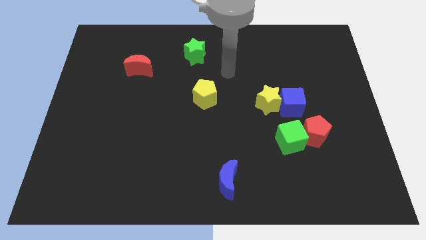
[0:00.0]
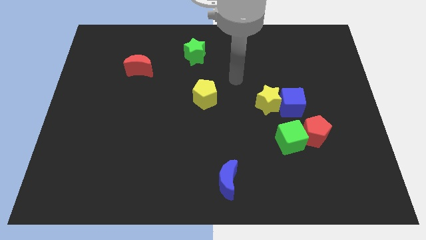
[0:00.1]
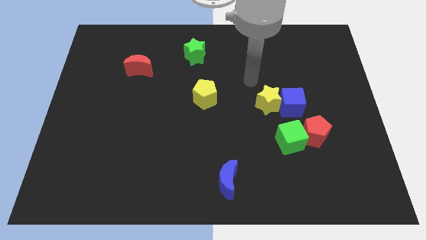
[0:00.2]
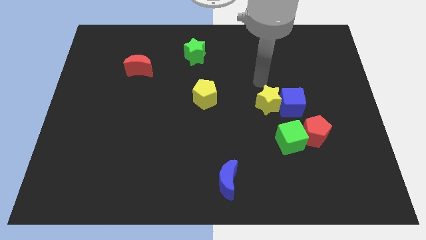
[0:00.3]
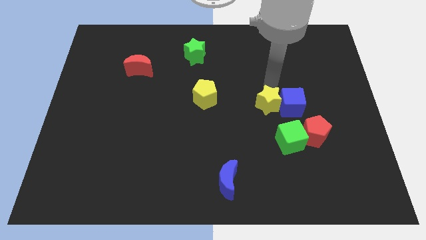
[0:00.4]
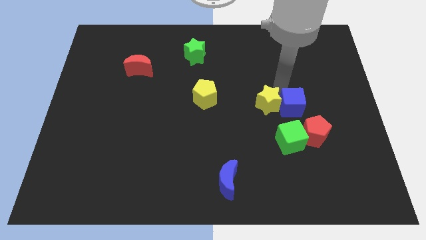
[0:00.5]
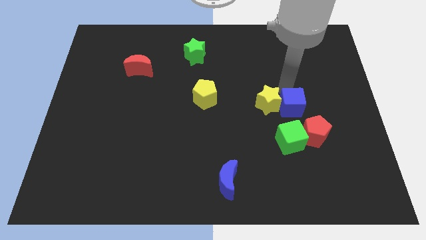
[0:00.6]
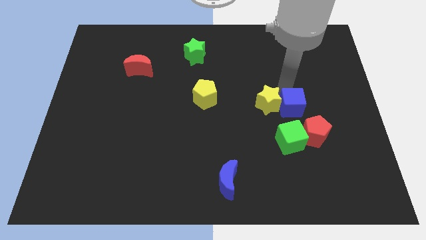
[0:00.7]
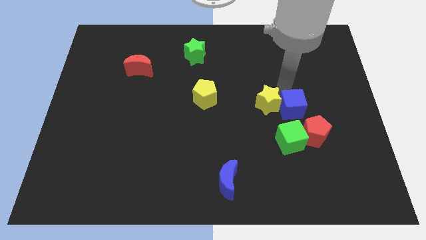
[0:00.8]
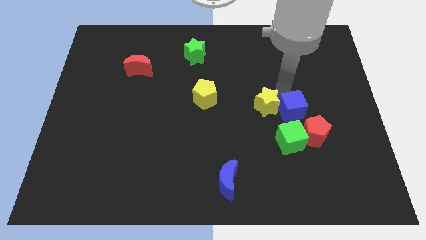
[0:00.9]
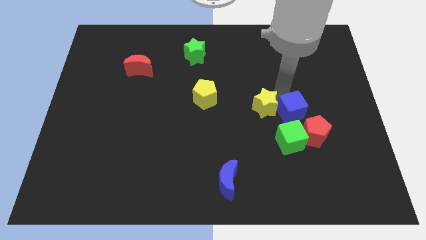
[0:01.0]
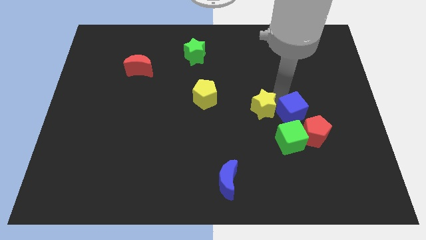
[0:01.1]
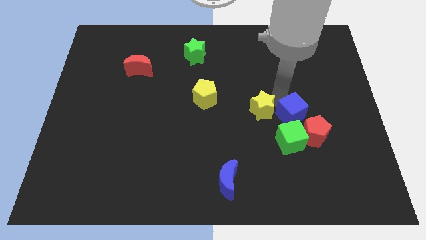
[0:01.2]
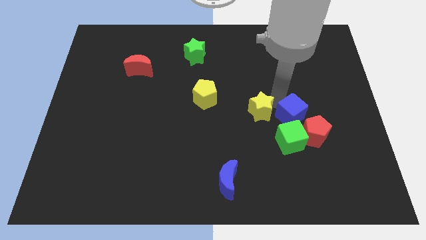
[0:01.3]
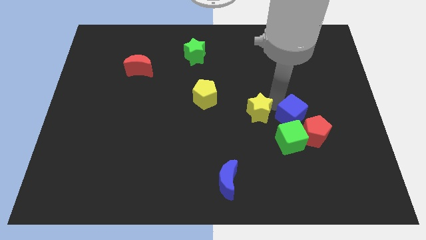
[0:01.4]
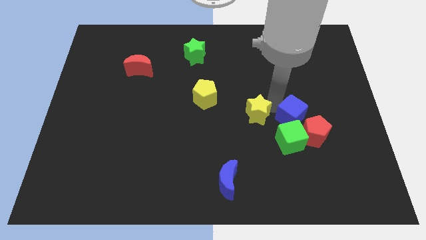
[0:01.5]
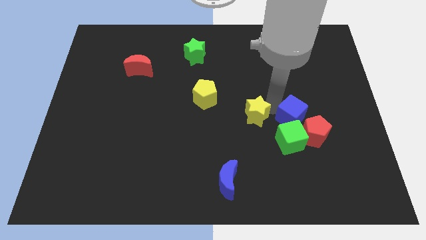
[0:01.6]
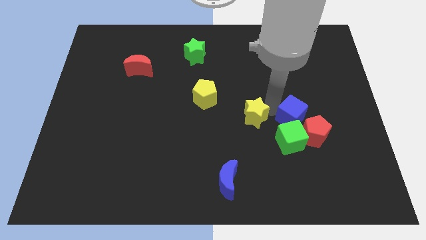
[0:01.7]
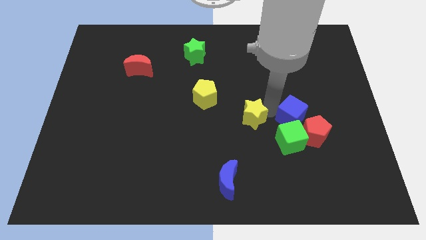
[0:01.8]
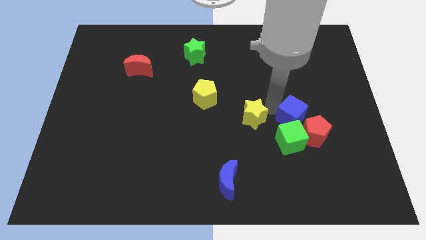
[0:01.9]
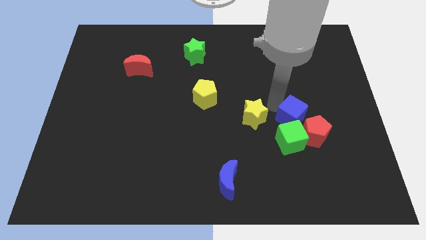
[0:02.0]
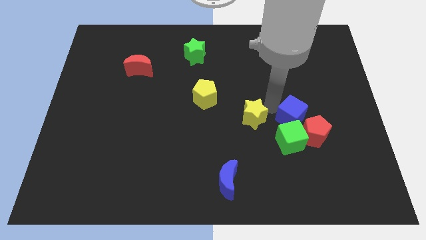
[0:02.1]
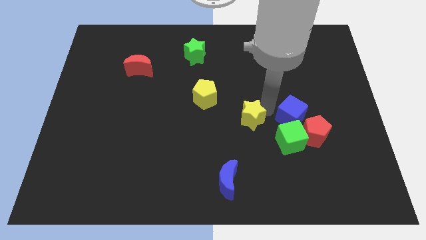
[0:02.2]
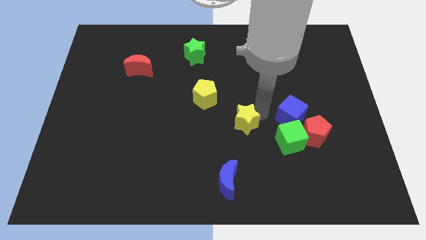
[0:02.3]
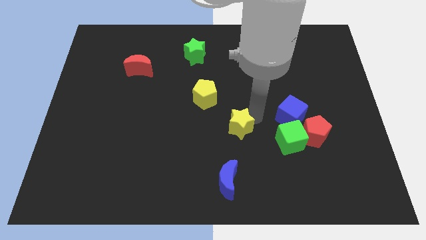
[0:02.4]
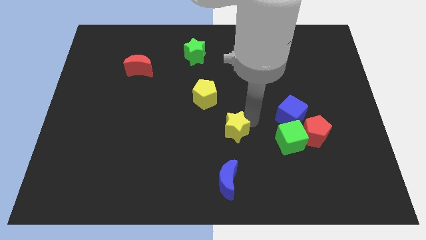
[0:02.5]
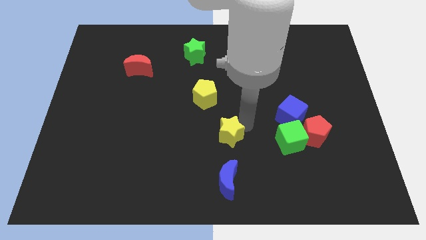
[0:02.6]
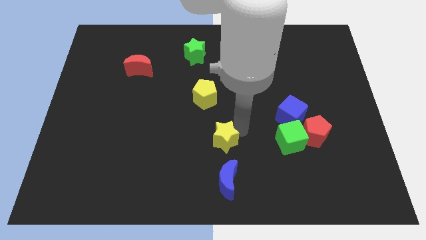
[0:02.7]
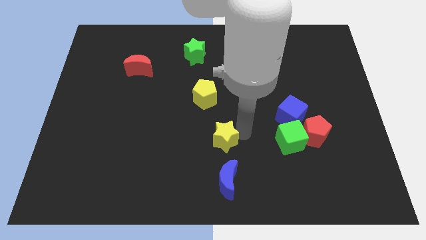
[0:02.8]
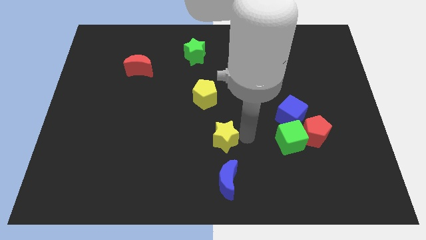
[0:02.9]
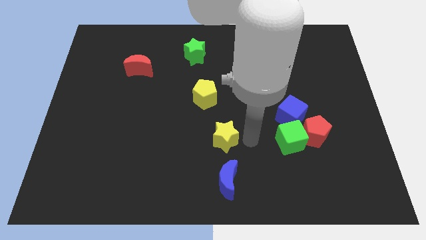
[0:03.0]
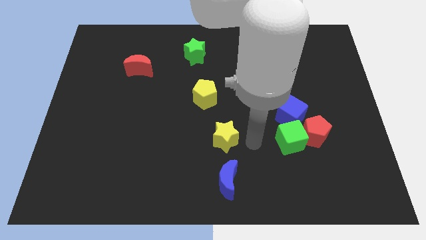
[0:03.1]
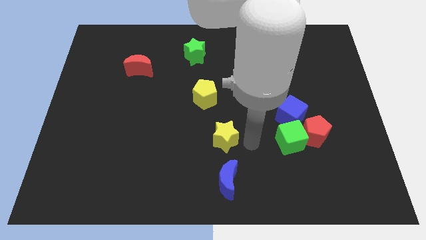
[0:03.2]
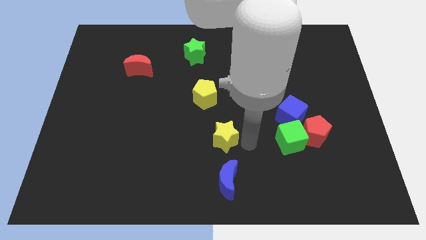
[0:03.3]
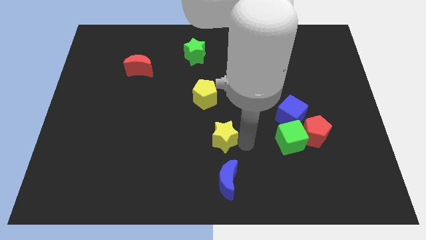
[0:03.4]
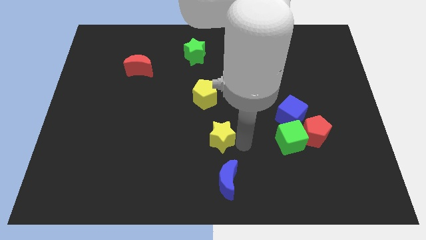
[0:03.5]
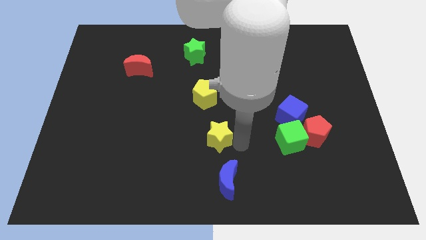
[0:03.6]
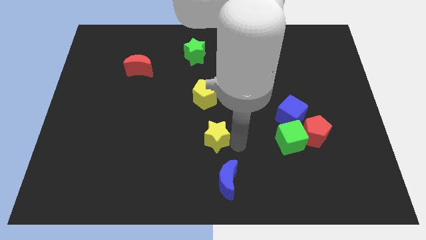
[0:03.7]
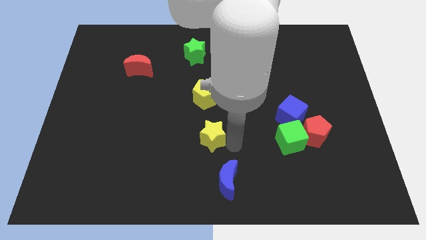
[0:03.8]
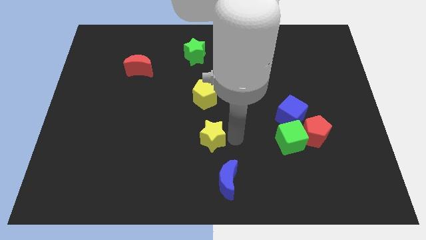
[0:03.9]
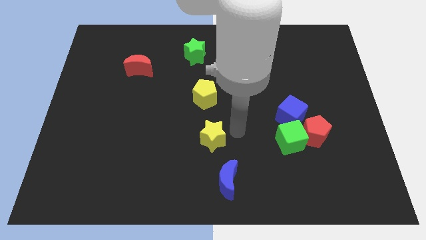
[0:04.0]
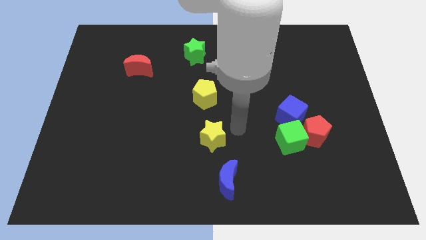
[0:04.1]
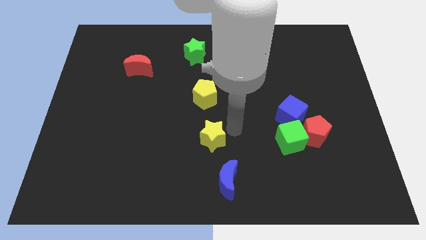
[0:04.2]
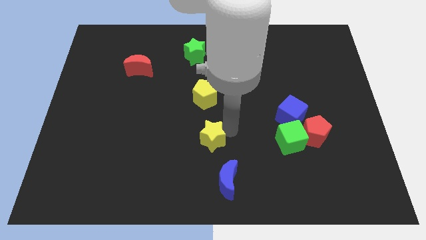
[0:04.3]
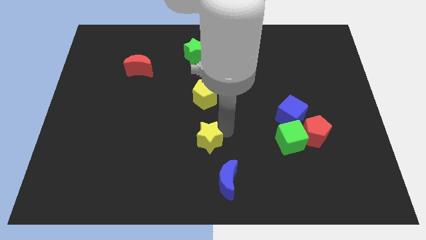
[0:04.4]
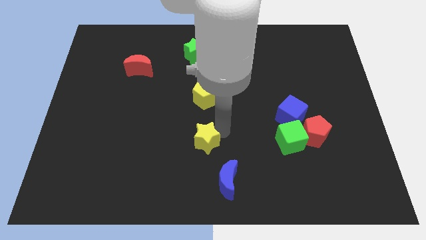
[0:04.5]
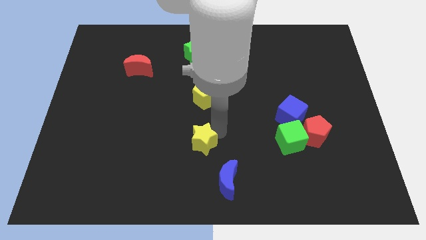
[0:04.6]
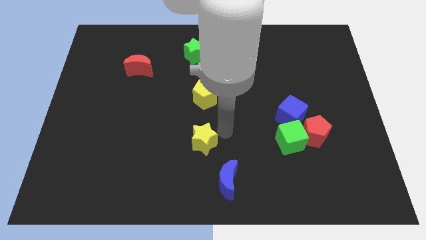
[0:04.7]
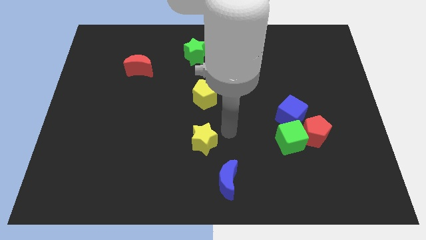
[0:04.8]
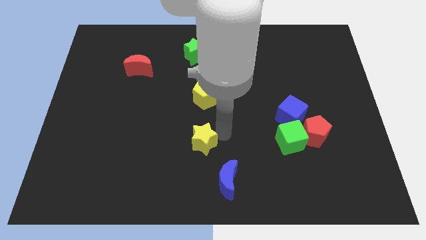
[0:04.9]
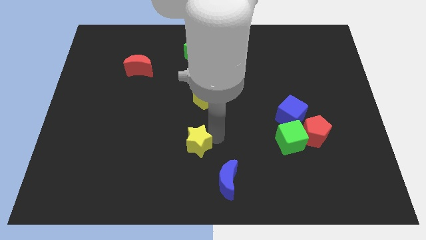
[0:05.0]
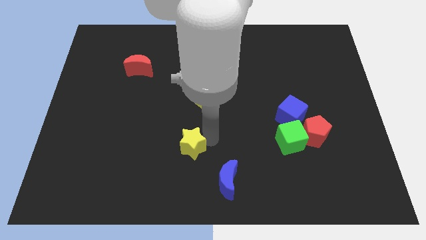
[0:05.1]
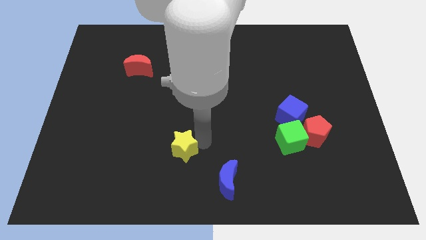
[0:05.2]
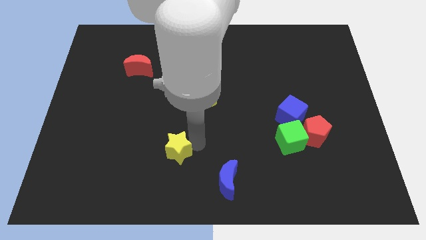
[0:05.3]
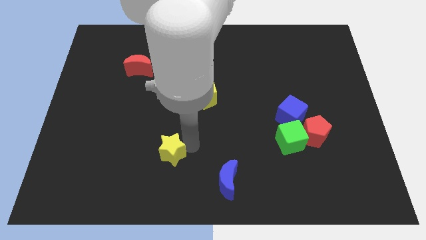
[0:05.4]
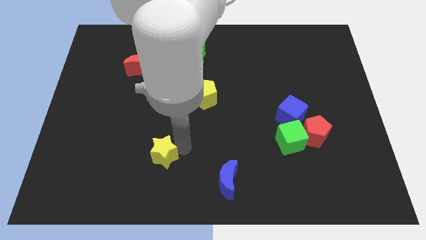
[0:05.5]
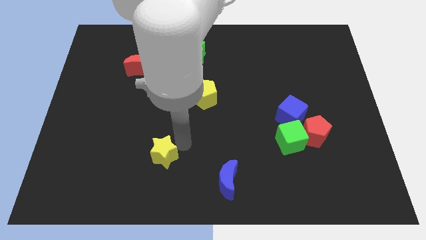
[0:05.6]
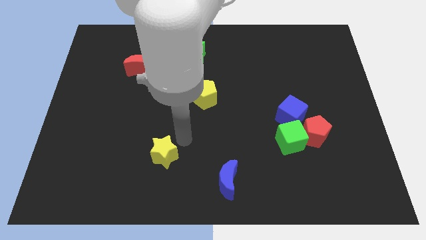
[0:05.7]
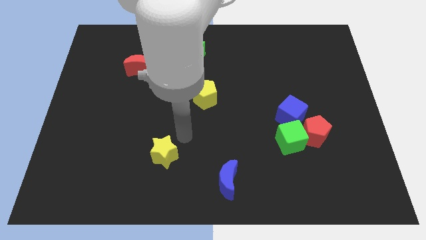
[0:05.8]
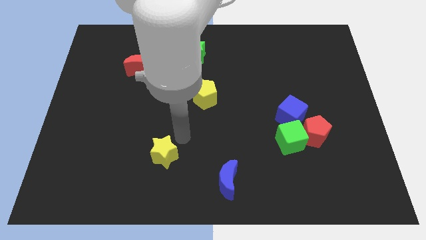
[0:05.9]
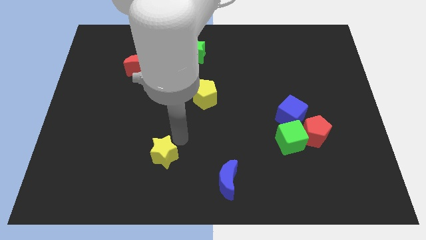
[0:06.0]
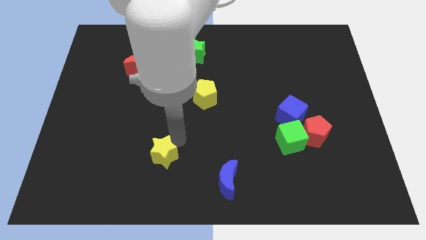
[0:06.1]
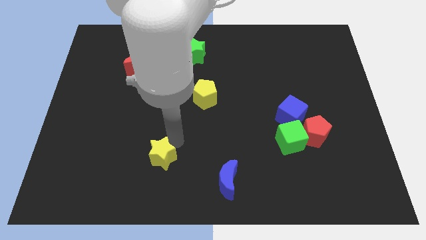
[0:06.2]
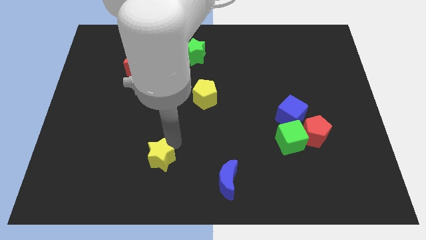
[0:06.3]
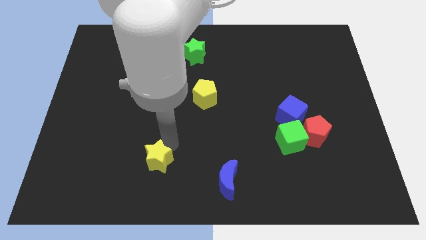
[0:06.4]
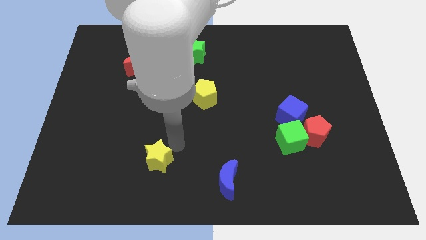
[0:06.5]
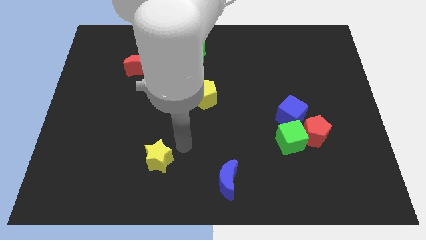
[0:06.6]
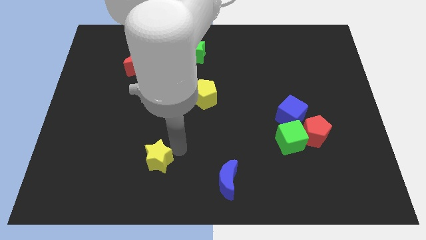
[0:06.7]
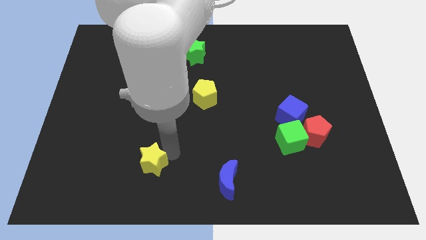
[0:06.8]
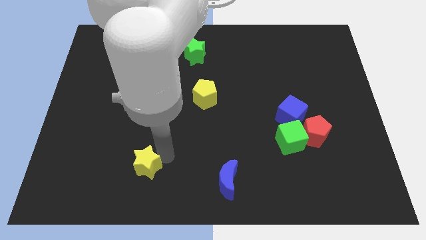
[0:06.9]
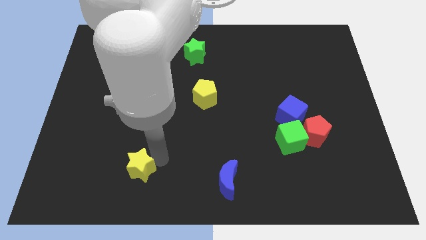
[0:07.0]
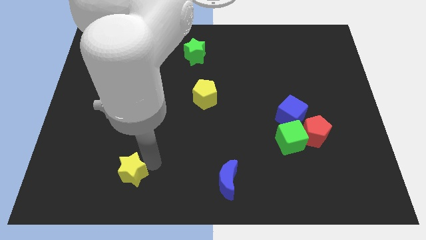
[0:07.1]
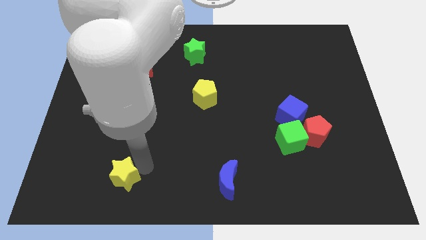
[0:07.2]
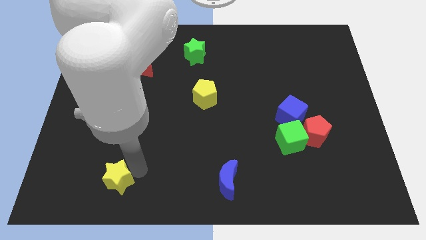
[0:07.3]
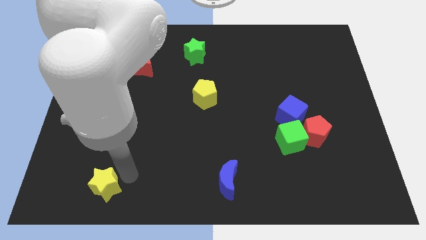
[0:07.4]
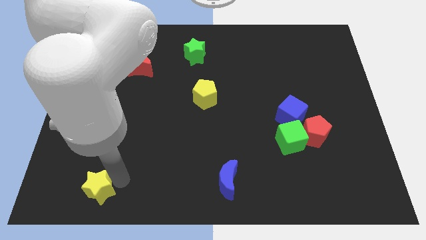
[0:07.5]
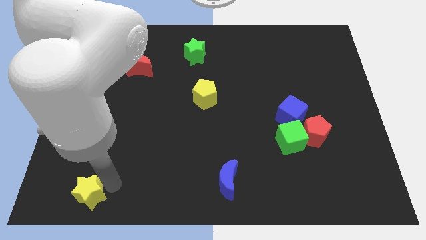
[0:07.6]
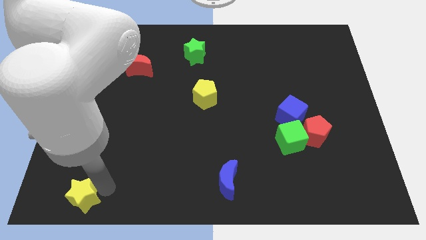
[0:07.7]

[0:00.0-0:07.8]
put the yellow star to the bottom left corner
